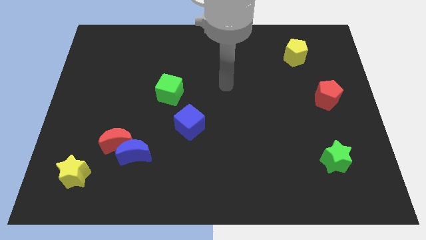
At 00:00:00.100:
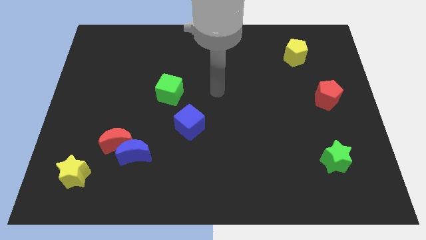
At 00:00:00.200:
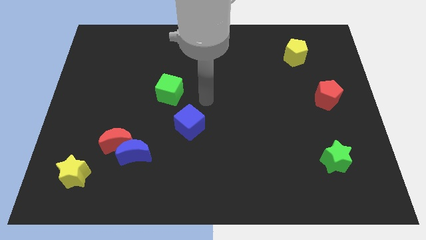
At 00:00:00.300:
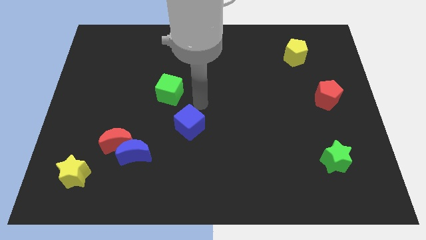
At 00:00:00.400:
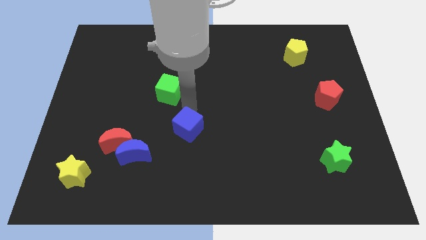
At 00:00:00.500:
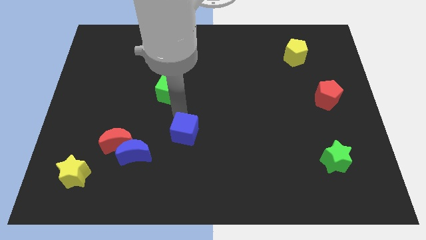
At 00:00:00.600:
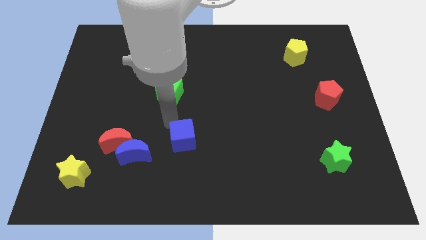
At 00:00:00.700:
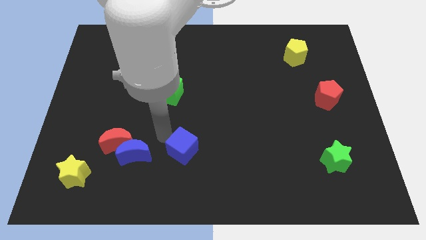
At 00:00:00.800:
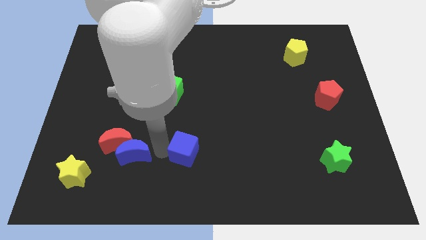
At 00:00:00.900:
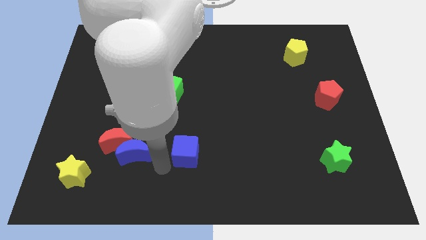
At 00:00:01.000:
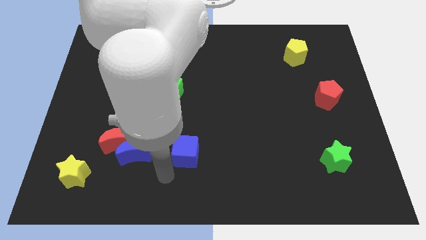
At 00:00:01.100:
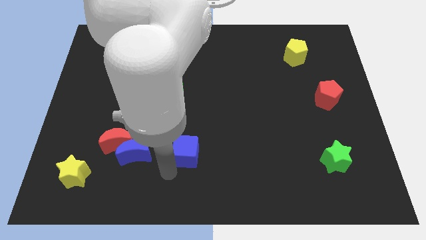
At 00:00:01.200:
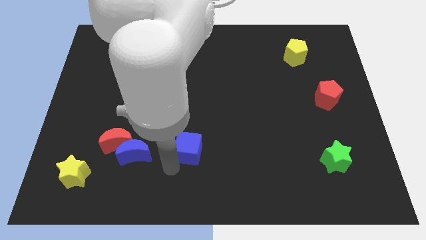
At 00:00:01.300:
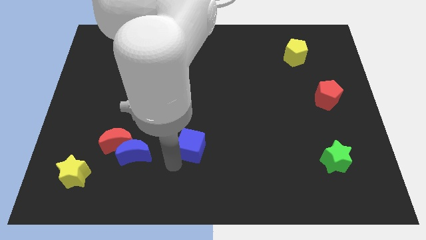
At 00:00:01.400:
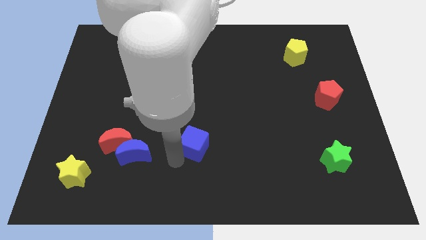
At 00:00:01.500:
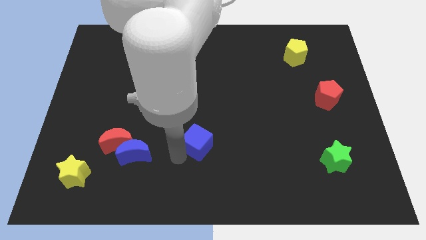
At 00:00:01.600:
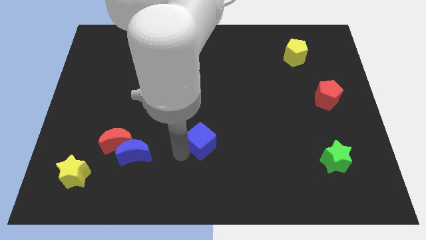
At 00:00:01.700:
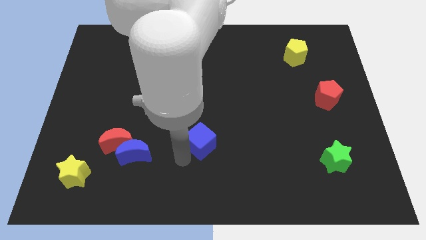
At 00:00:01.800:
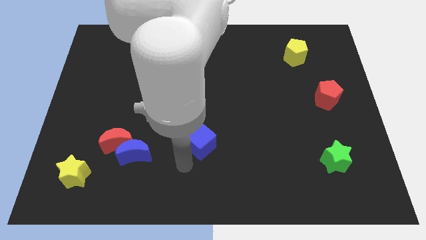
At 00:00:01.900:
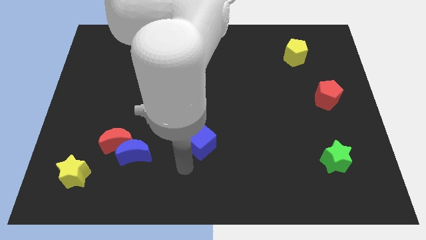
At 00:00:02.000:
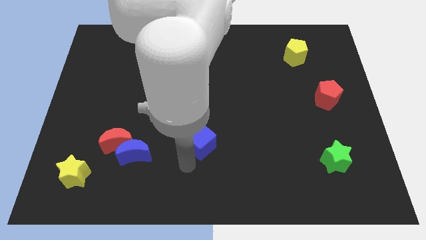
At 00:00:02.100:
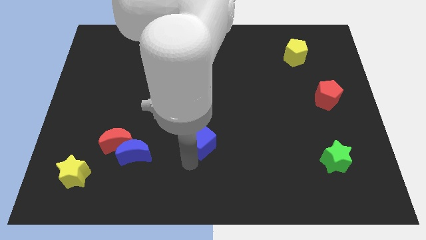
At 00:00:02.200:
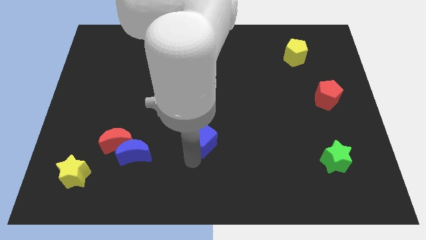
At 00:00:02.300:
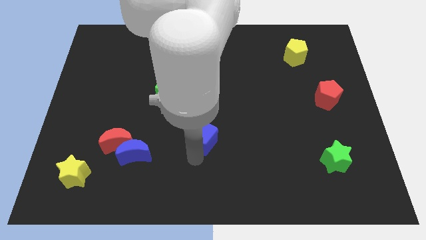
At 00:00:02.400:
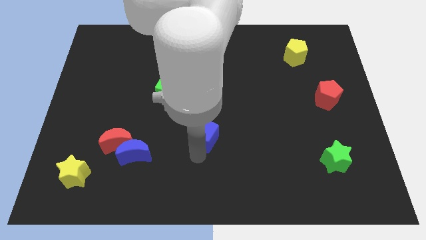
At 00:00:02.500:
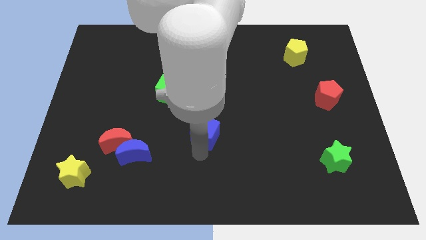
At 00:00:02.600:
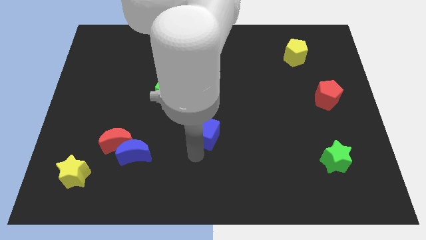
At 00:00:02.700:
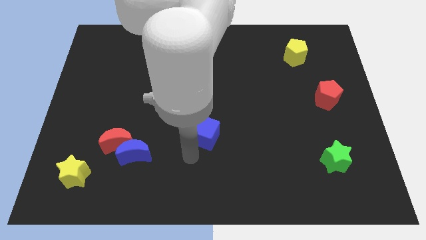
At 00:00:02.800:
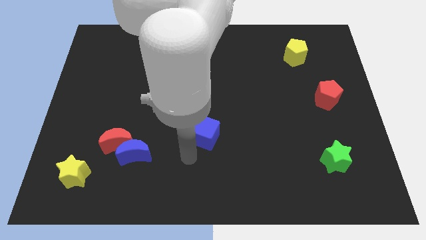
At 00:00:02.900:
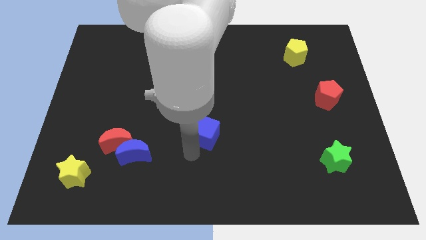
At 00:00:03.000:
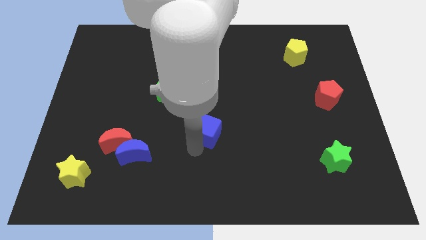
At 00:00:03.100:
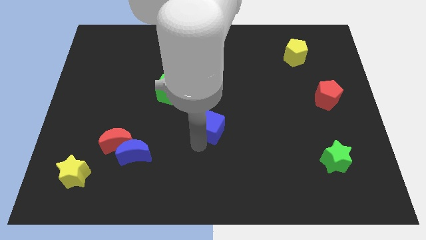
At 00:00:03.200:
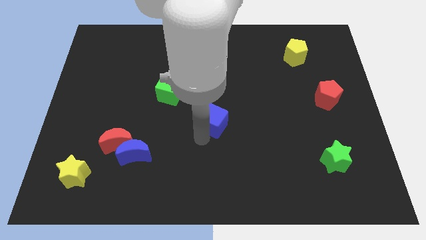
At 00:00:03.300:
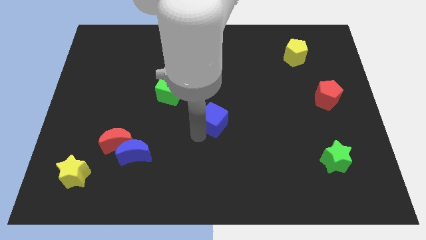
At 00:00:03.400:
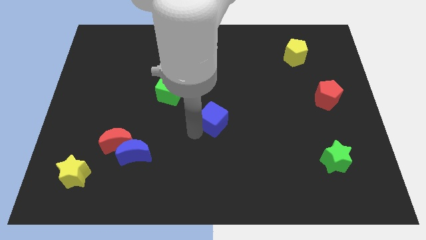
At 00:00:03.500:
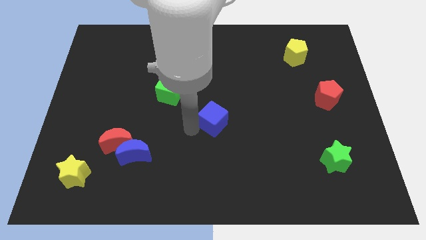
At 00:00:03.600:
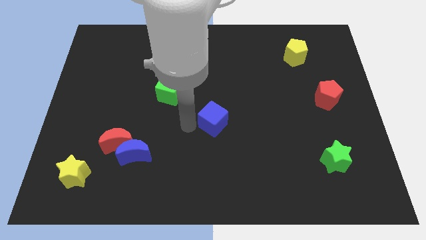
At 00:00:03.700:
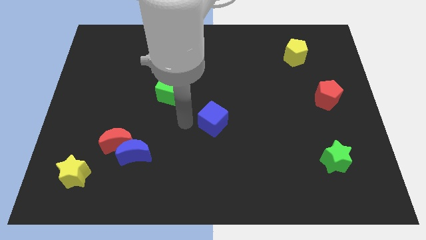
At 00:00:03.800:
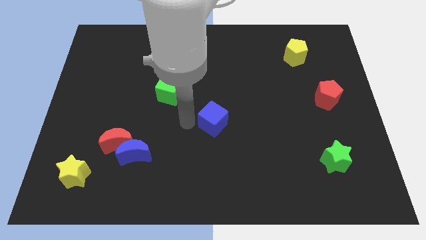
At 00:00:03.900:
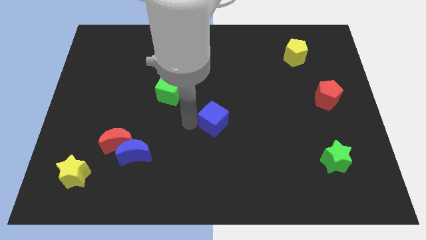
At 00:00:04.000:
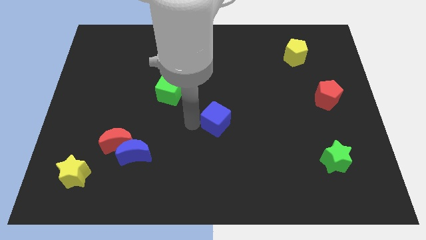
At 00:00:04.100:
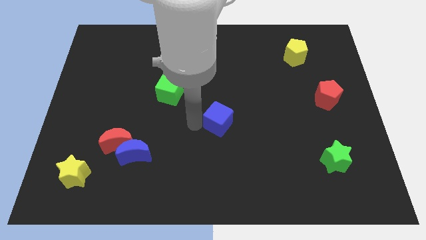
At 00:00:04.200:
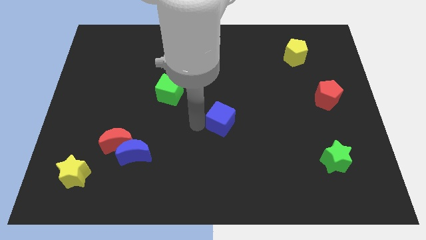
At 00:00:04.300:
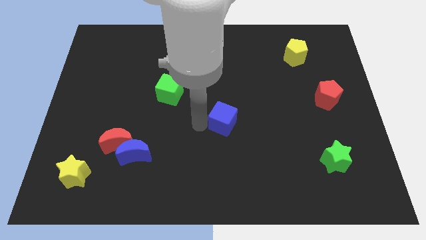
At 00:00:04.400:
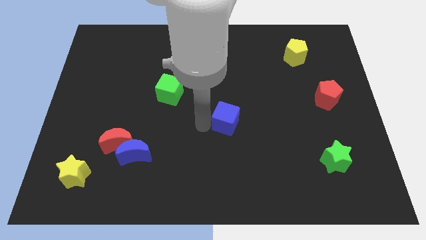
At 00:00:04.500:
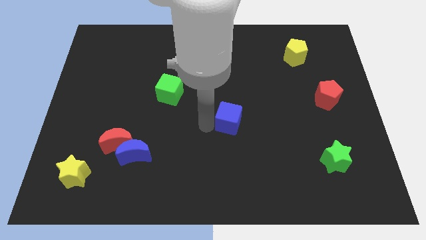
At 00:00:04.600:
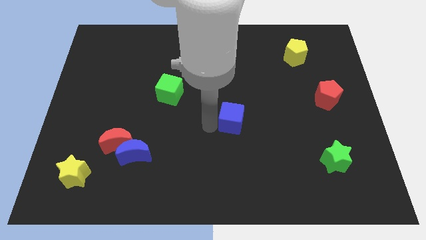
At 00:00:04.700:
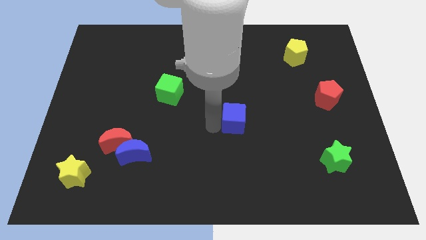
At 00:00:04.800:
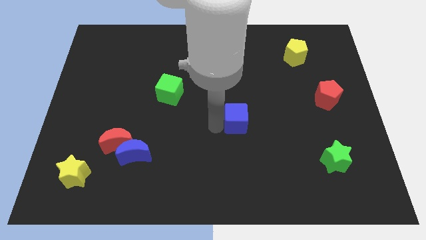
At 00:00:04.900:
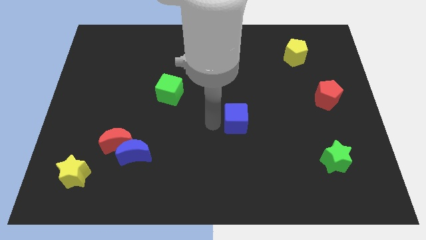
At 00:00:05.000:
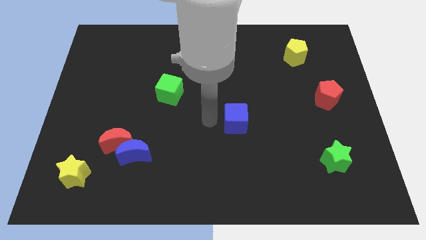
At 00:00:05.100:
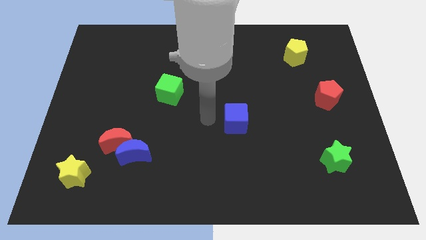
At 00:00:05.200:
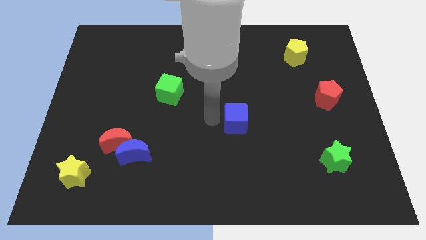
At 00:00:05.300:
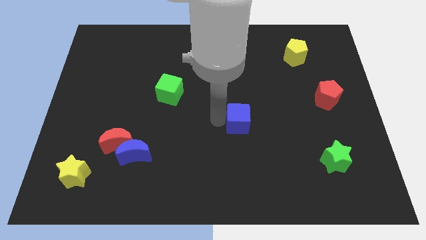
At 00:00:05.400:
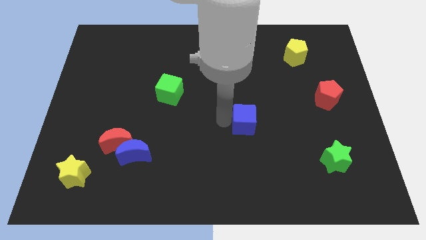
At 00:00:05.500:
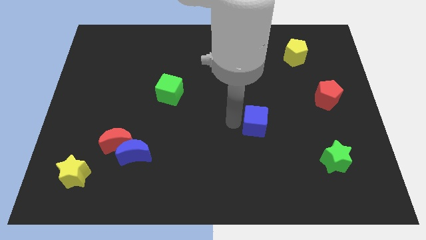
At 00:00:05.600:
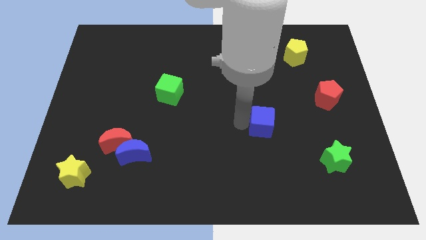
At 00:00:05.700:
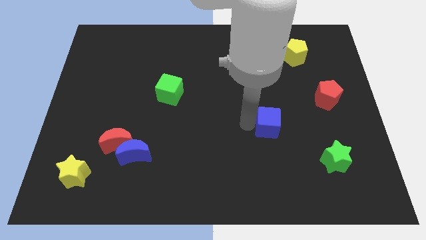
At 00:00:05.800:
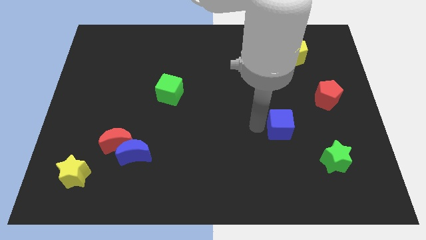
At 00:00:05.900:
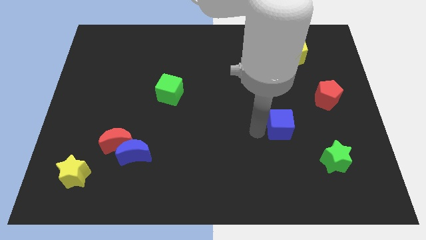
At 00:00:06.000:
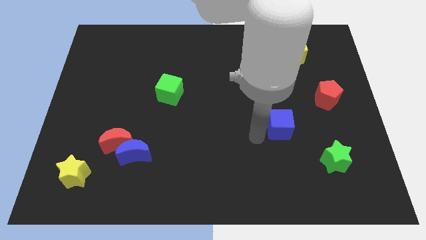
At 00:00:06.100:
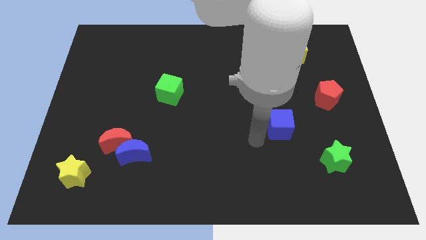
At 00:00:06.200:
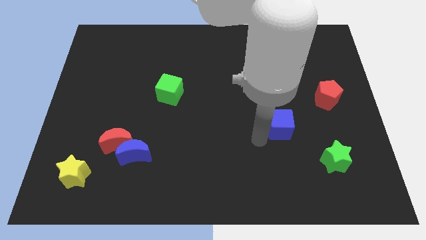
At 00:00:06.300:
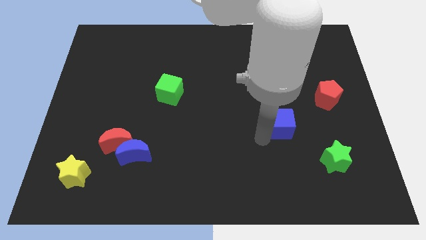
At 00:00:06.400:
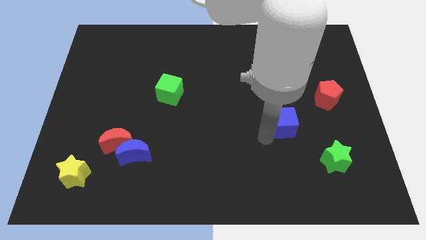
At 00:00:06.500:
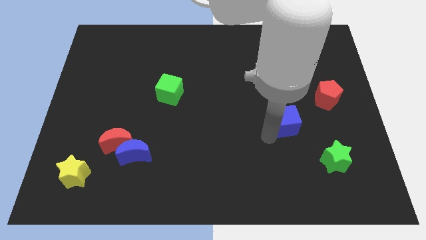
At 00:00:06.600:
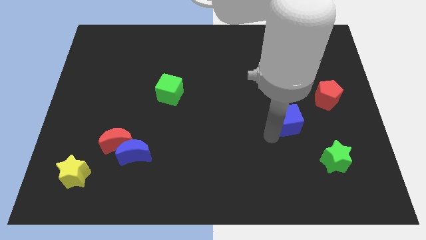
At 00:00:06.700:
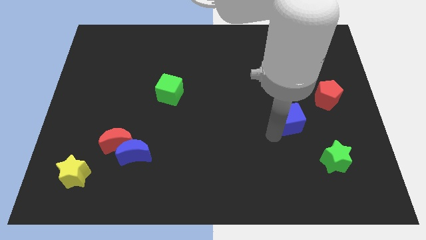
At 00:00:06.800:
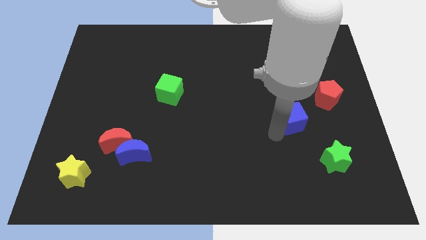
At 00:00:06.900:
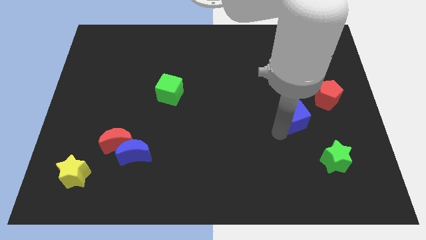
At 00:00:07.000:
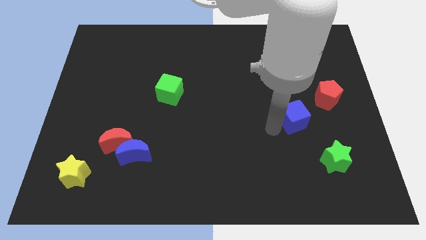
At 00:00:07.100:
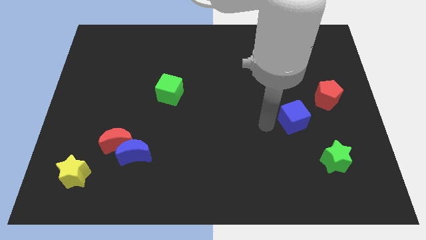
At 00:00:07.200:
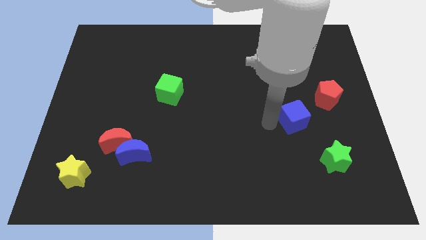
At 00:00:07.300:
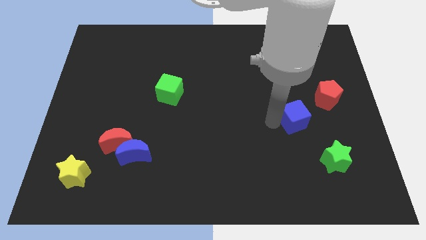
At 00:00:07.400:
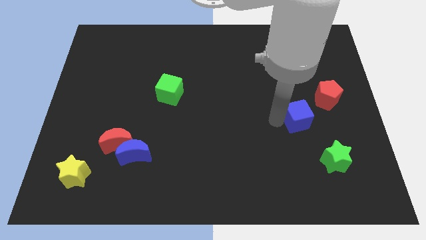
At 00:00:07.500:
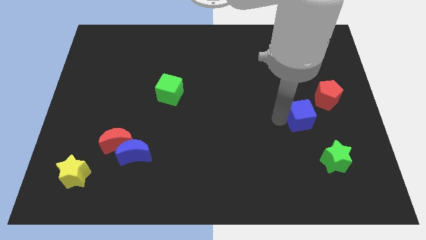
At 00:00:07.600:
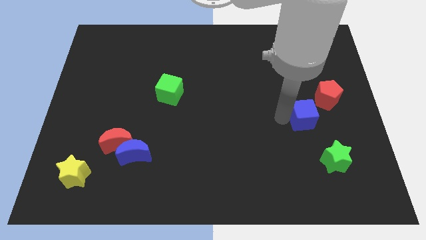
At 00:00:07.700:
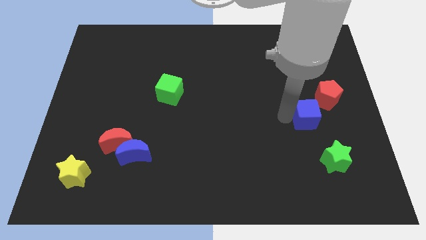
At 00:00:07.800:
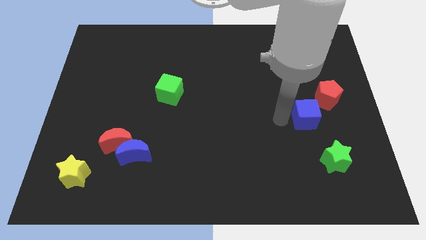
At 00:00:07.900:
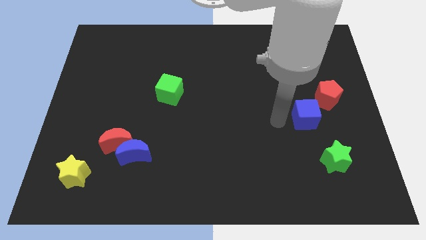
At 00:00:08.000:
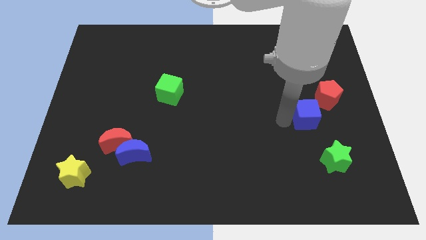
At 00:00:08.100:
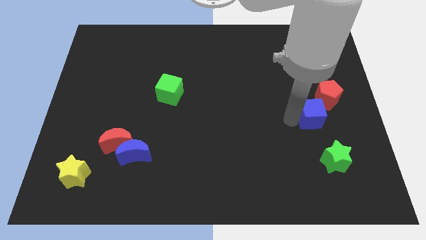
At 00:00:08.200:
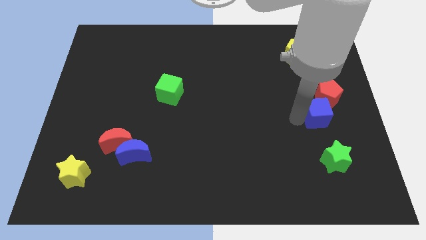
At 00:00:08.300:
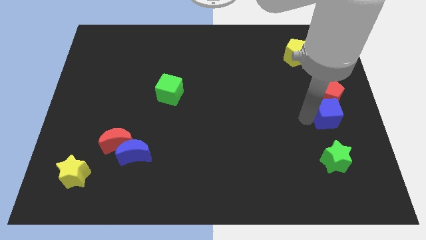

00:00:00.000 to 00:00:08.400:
slide the blue cube to the right side of the board
